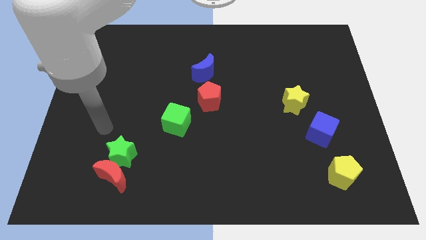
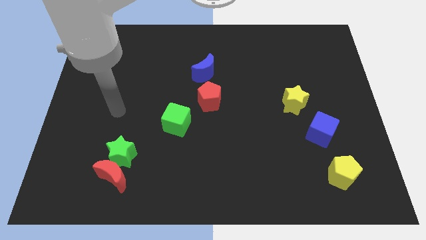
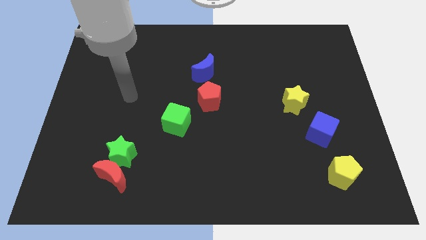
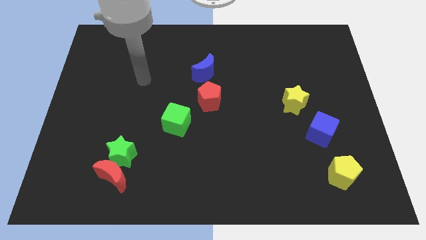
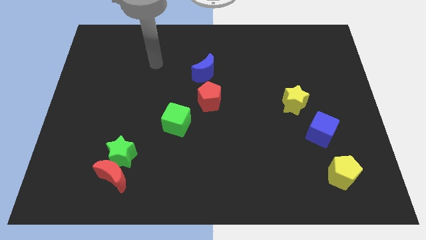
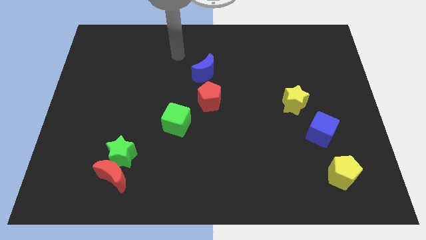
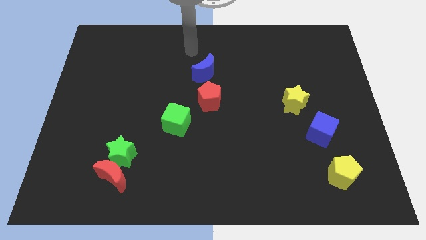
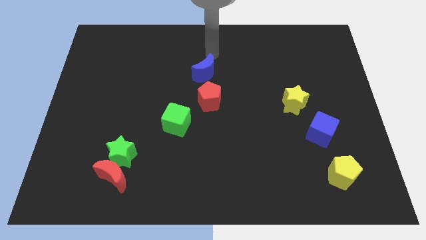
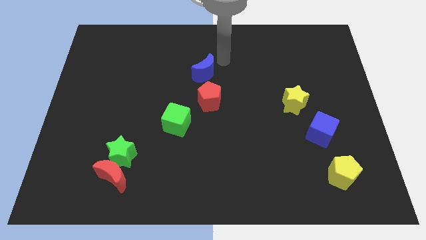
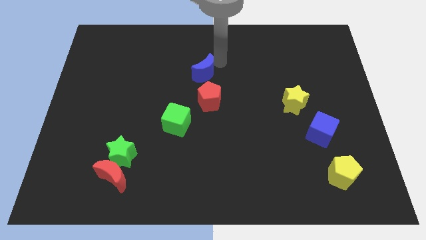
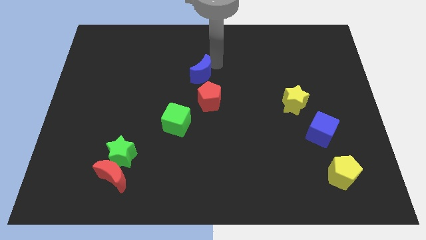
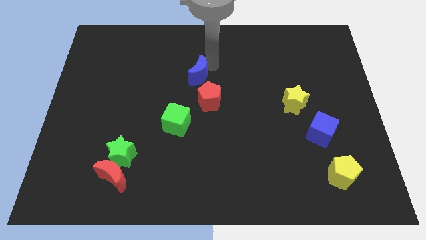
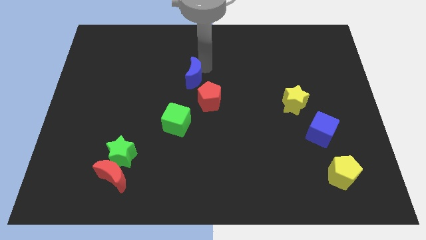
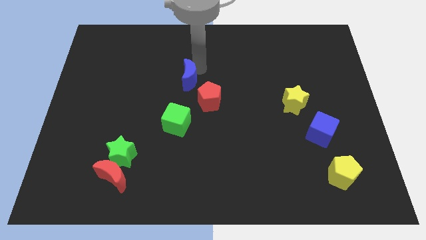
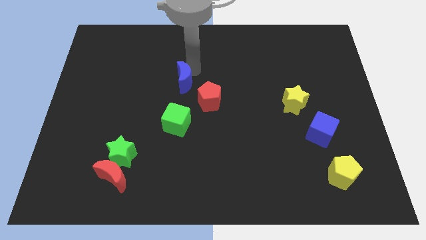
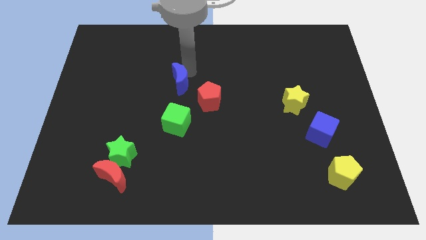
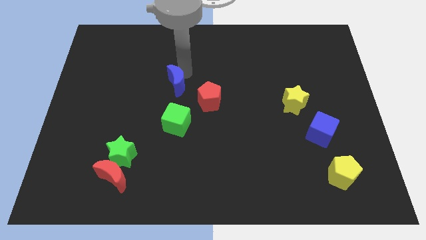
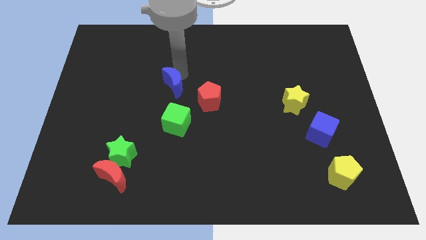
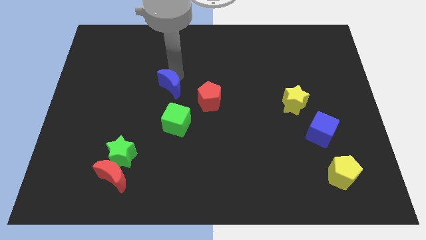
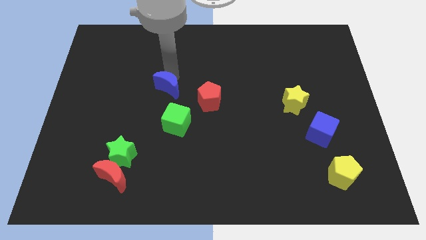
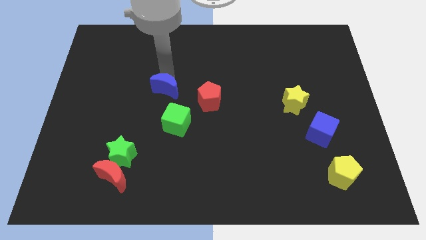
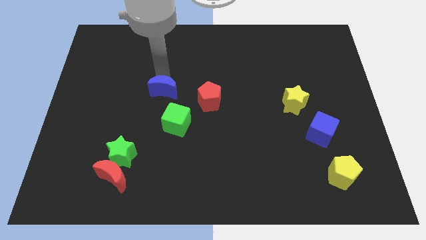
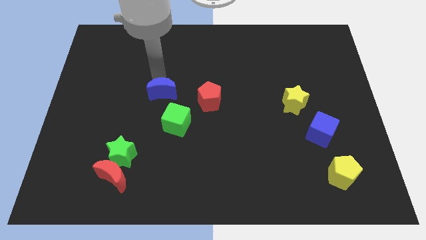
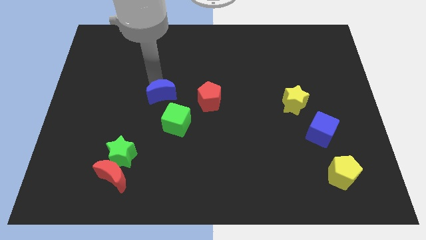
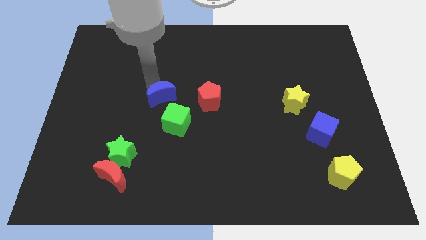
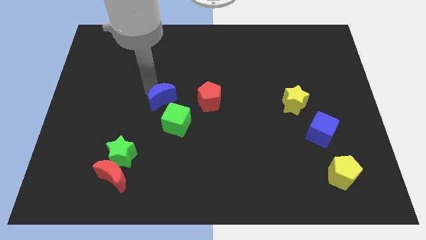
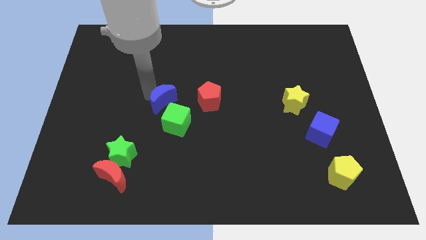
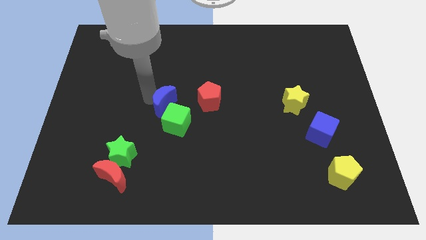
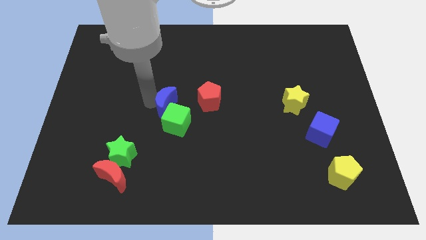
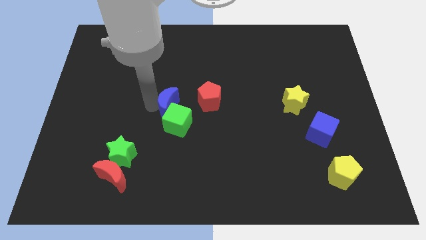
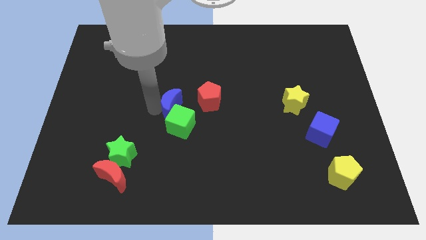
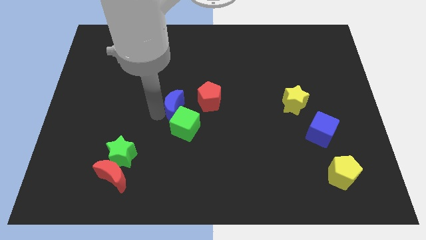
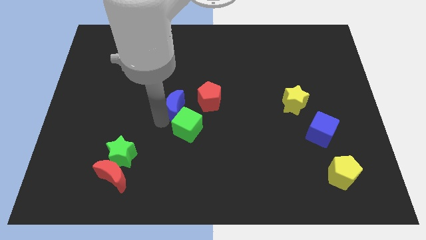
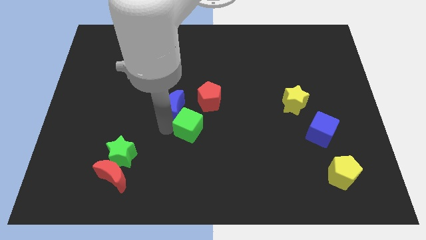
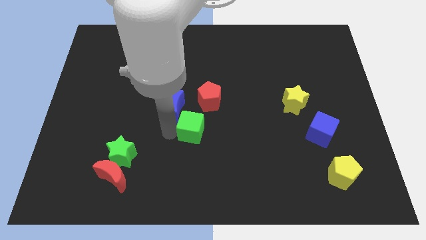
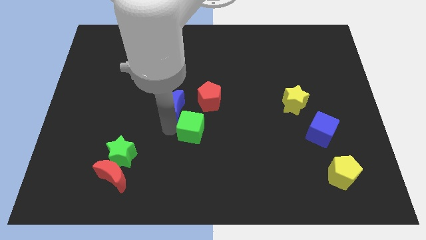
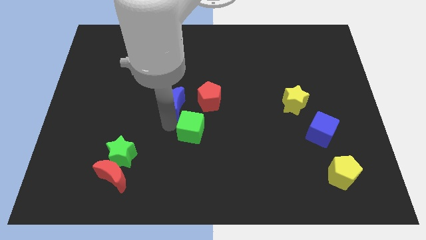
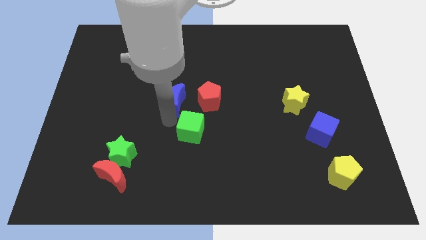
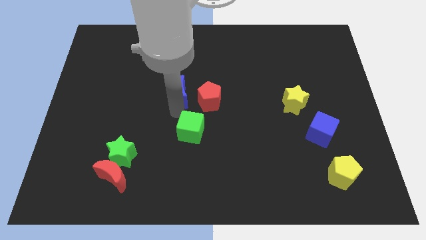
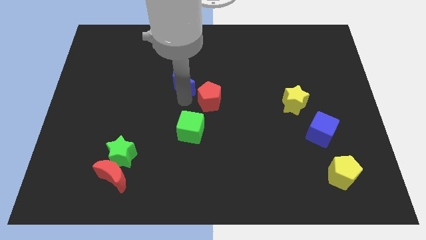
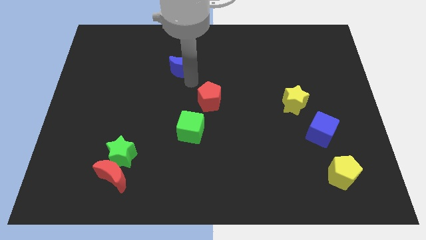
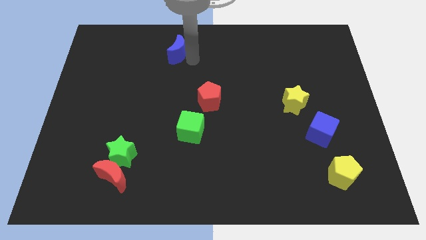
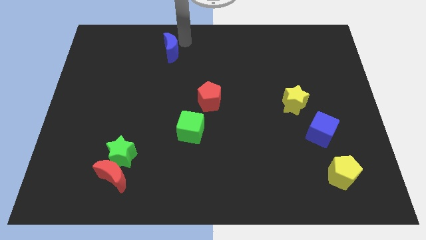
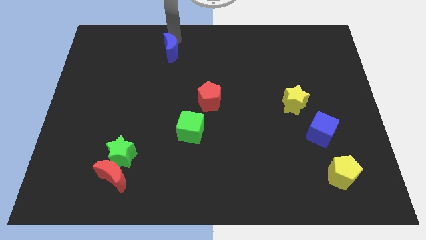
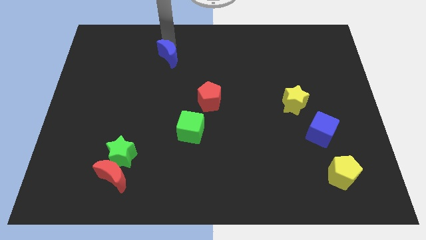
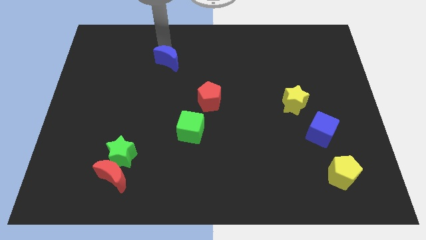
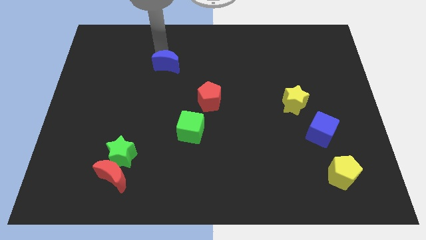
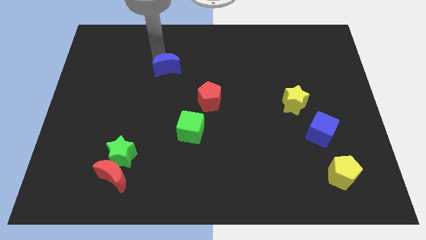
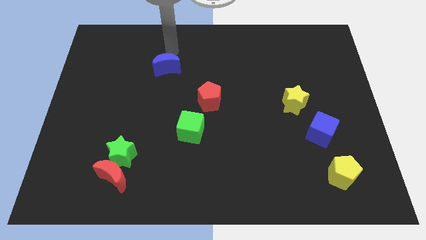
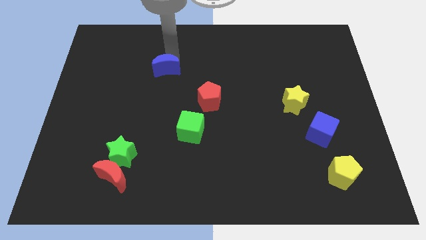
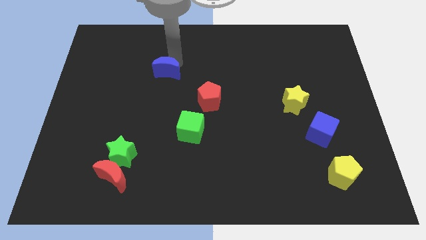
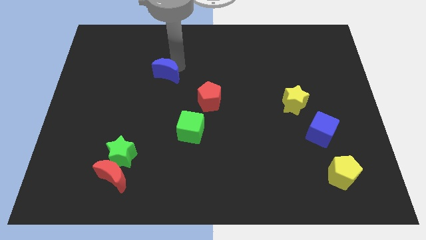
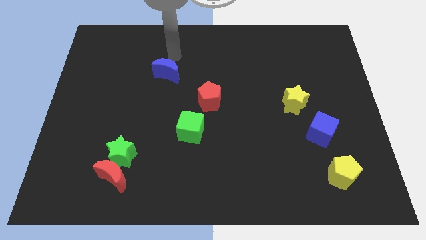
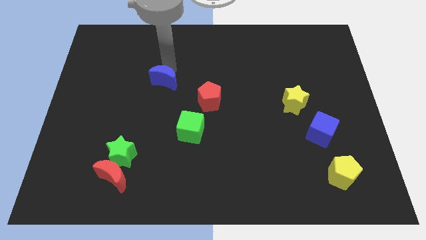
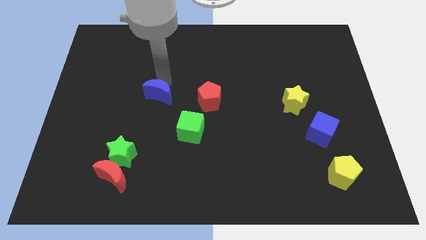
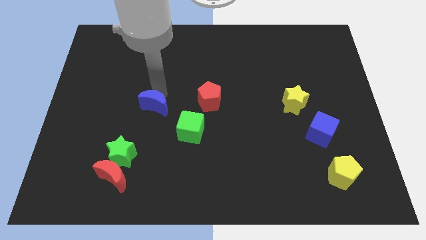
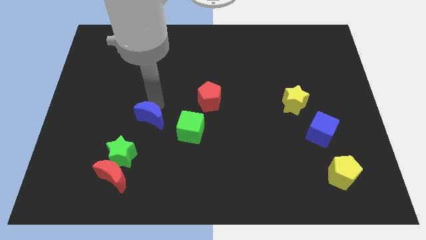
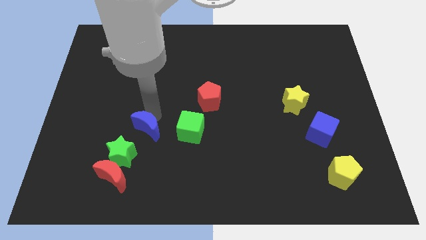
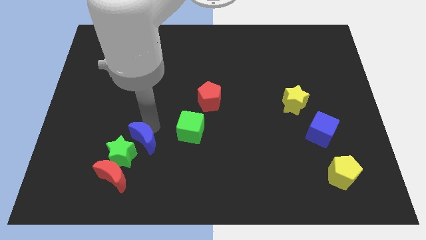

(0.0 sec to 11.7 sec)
push the blue moon next to the green star

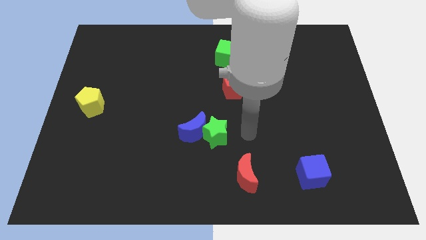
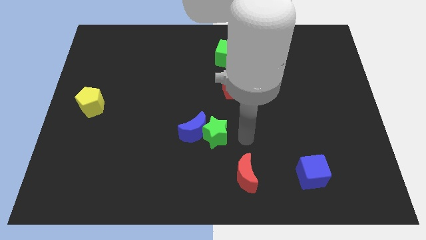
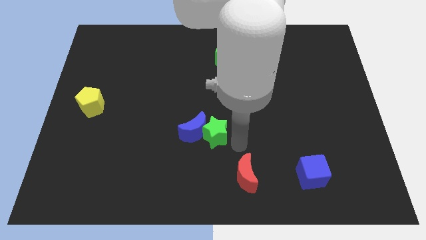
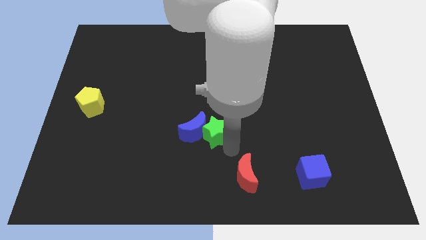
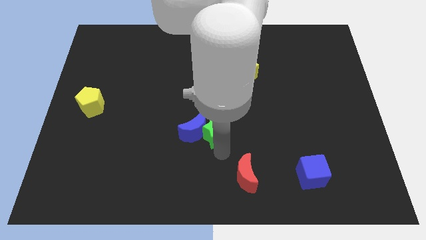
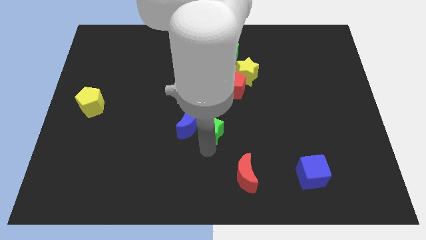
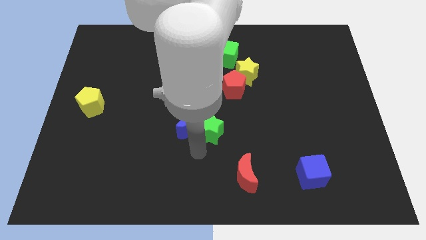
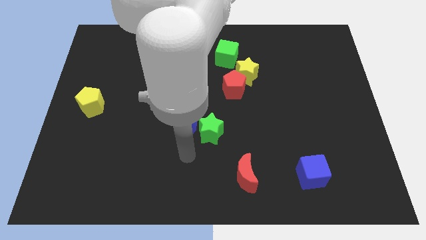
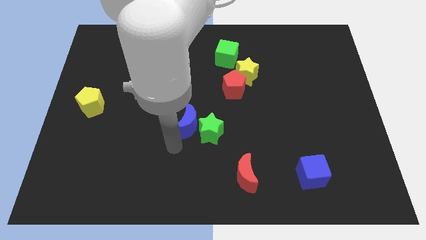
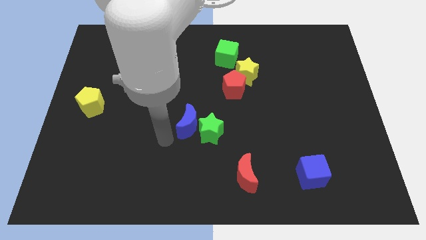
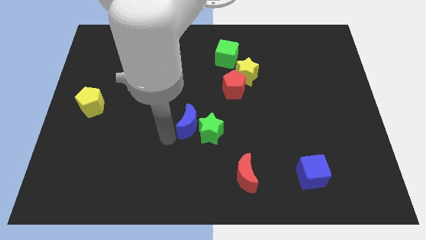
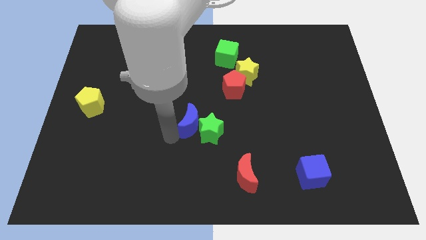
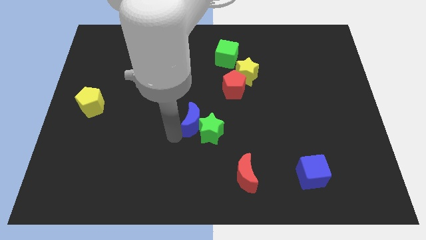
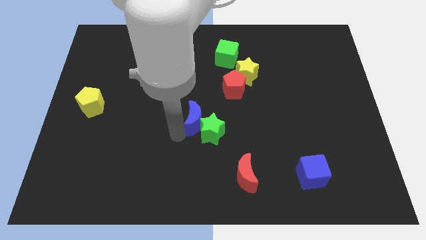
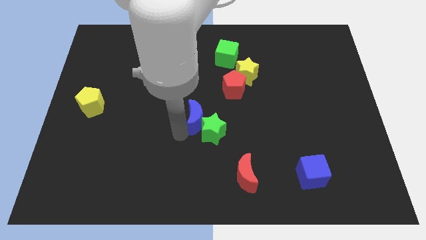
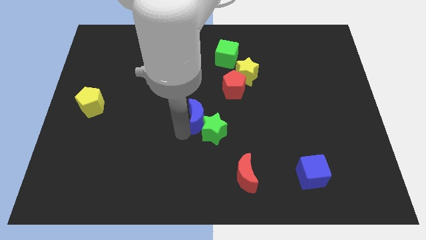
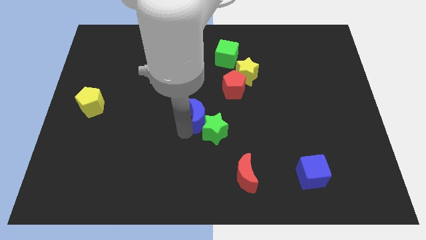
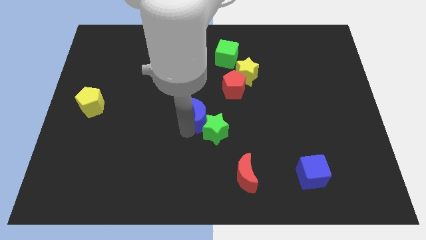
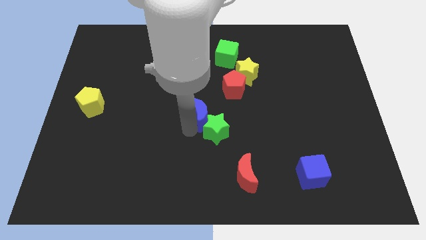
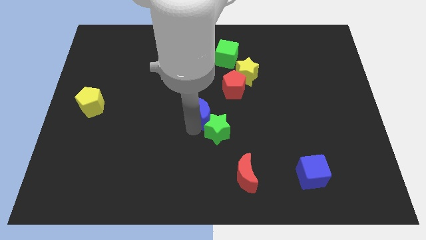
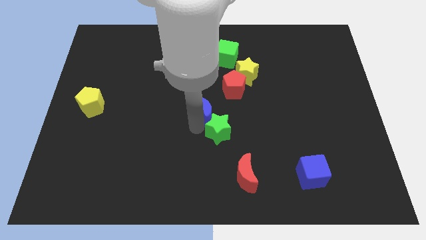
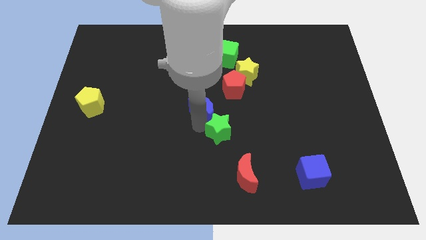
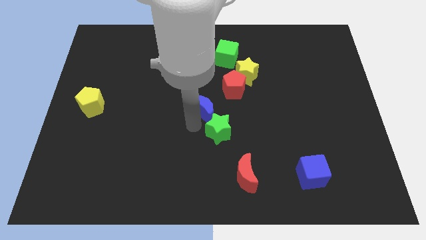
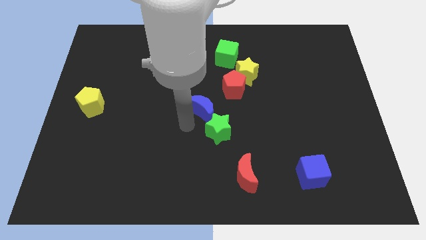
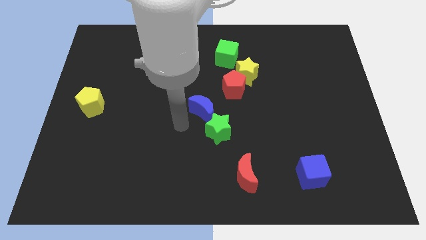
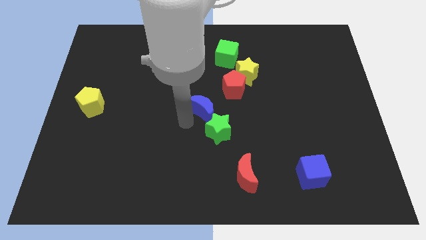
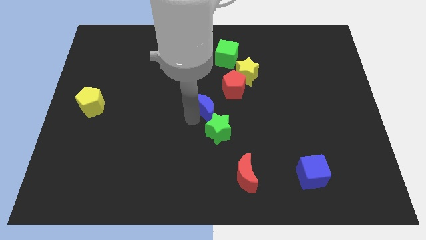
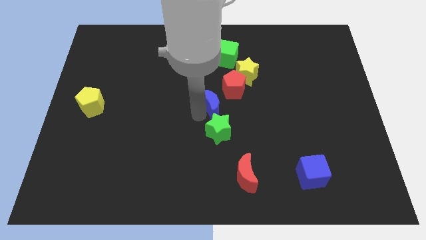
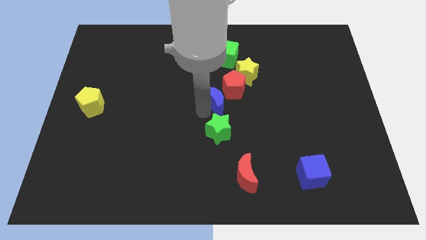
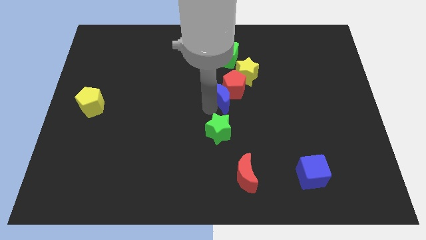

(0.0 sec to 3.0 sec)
slide the blue moon towards the red pentagon
